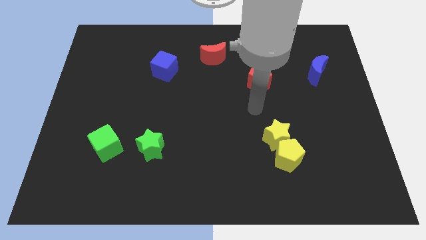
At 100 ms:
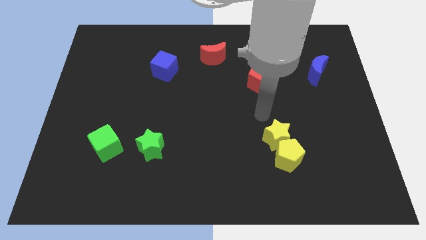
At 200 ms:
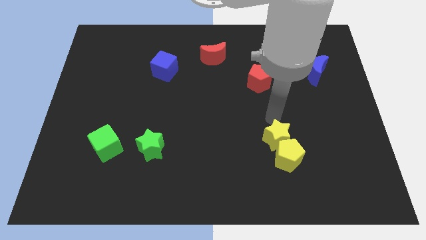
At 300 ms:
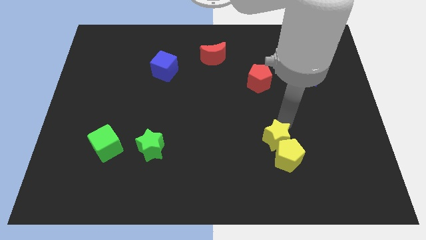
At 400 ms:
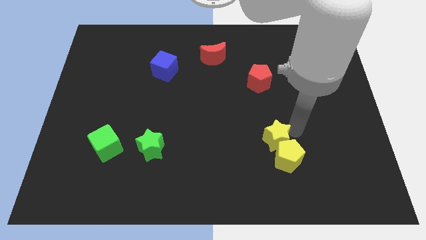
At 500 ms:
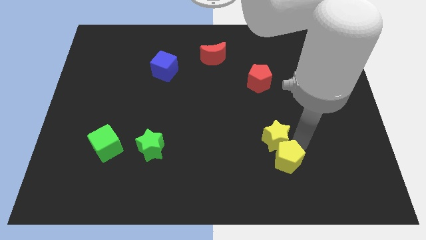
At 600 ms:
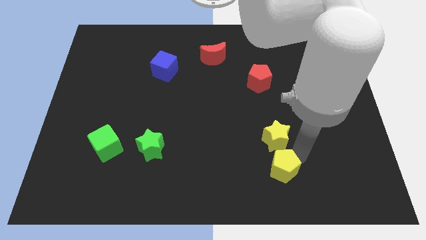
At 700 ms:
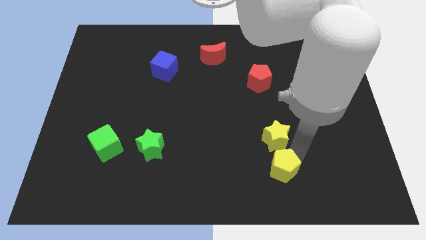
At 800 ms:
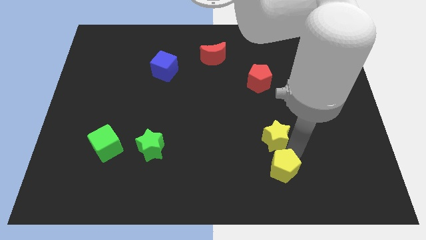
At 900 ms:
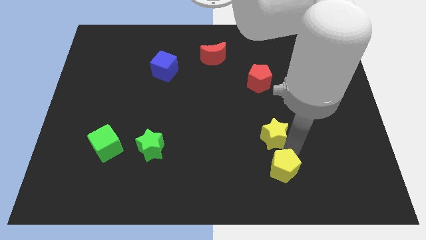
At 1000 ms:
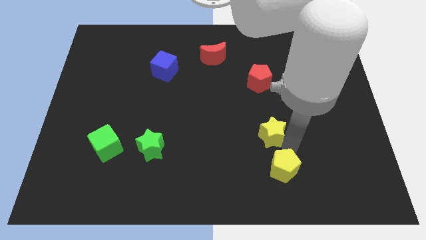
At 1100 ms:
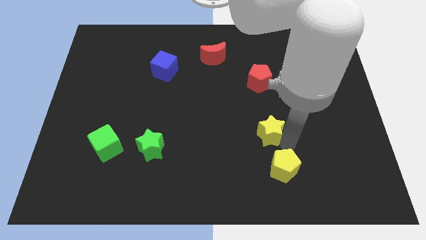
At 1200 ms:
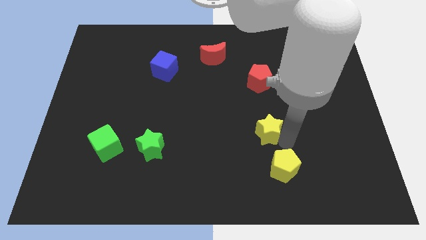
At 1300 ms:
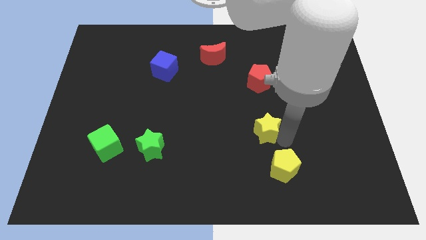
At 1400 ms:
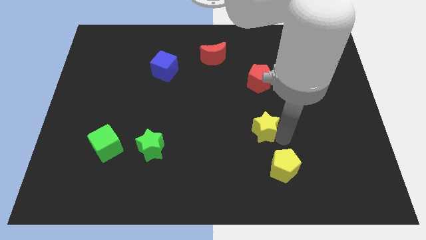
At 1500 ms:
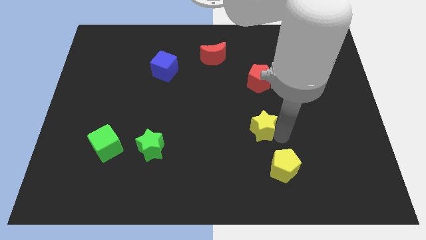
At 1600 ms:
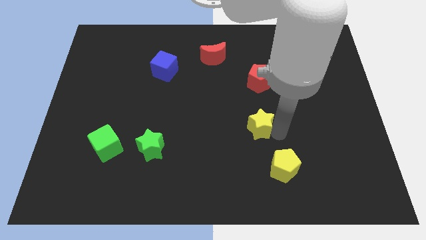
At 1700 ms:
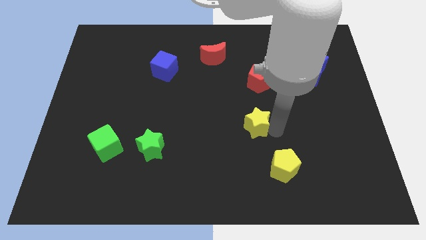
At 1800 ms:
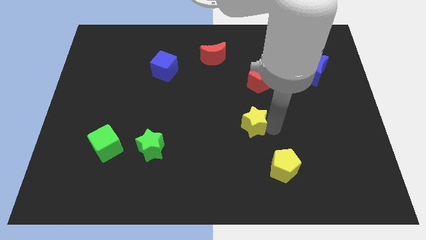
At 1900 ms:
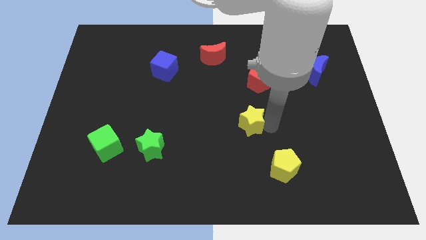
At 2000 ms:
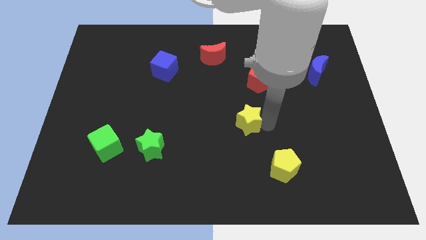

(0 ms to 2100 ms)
slide the yellow star diagonally up and left a bit

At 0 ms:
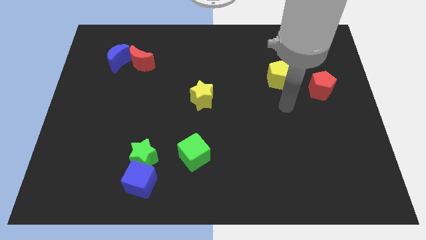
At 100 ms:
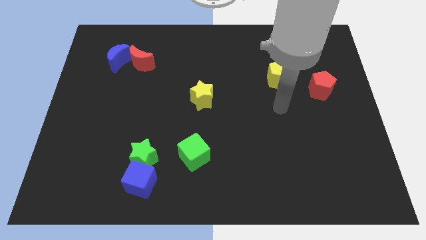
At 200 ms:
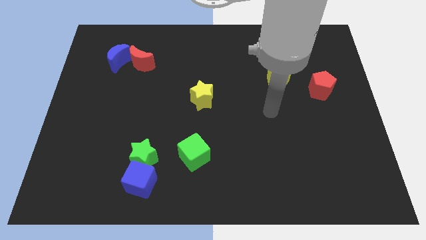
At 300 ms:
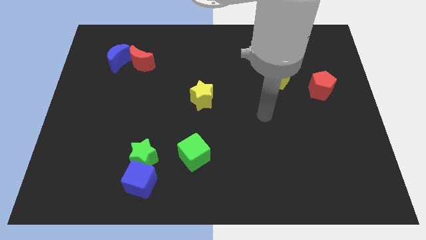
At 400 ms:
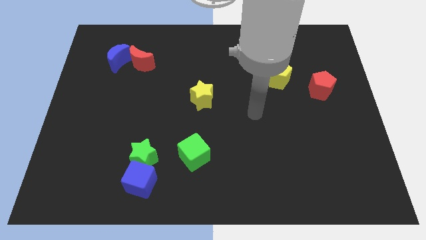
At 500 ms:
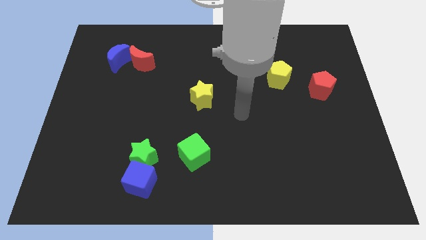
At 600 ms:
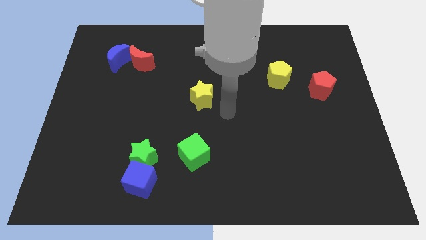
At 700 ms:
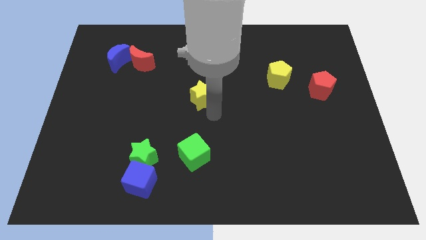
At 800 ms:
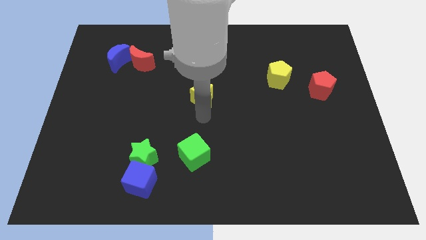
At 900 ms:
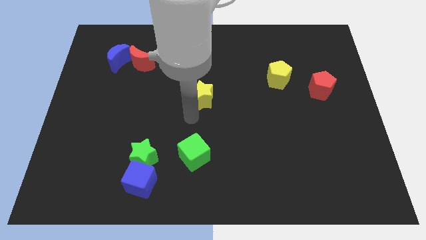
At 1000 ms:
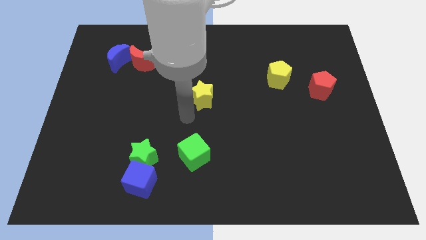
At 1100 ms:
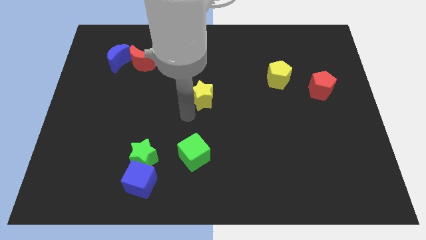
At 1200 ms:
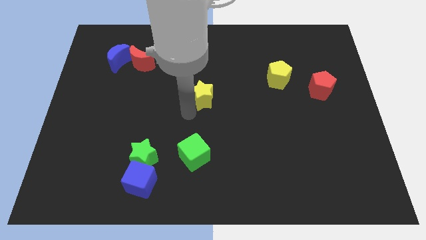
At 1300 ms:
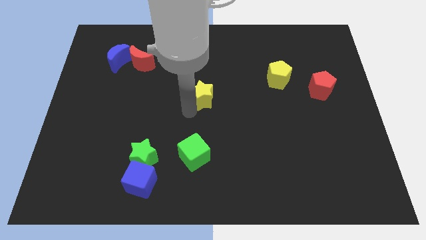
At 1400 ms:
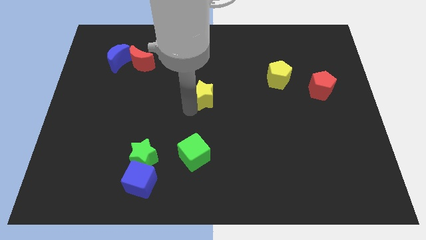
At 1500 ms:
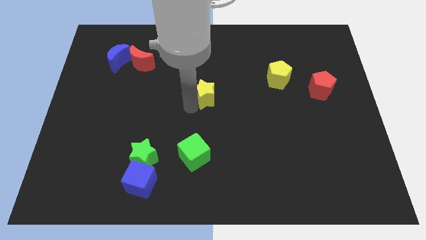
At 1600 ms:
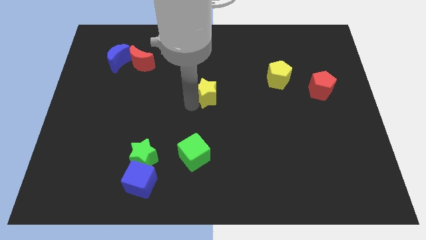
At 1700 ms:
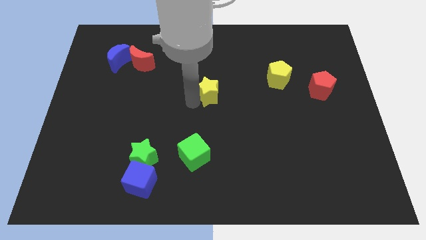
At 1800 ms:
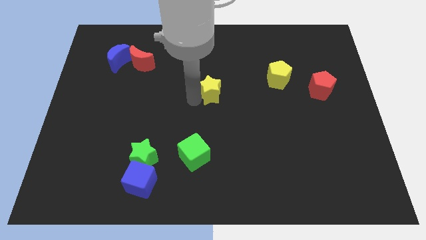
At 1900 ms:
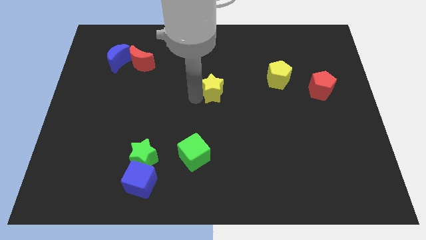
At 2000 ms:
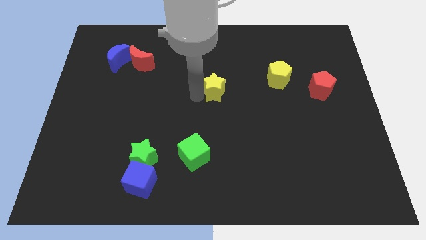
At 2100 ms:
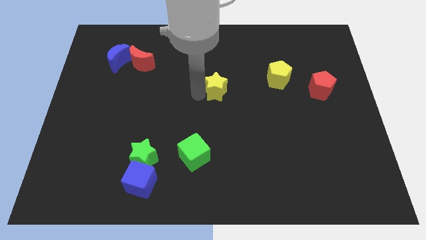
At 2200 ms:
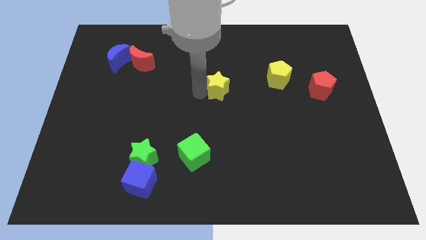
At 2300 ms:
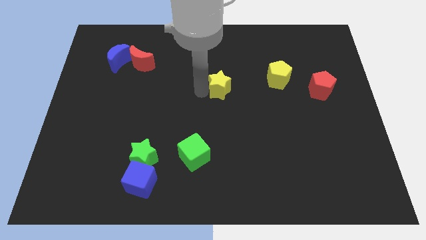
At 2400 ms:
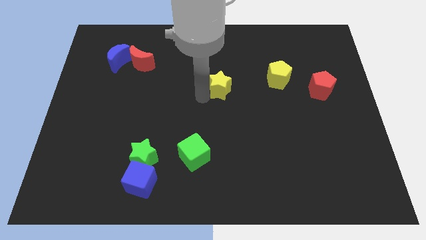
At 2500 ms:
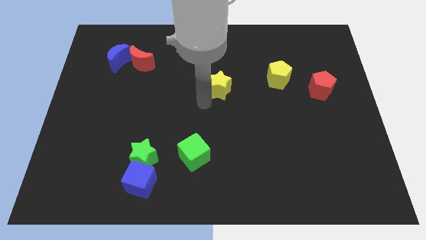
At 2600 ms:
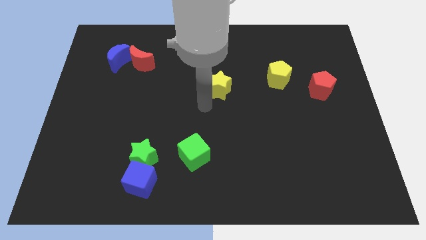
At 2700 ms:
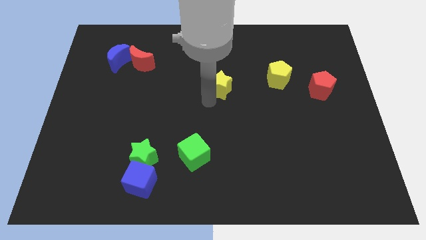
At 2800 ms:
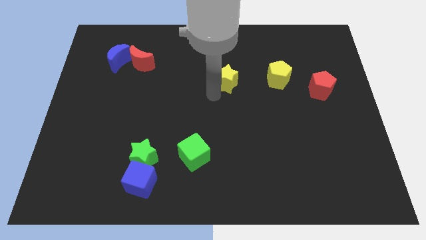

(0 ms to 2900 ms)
slide the yellow star diagonally upwards and to the right a bit

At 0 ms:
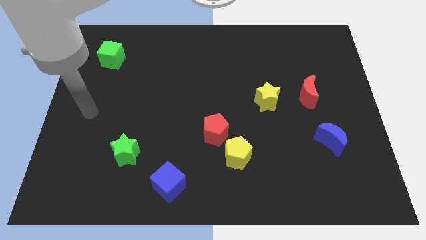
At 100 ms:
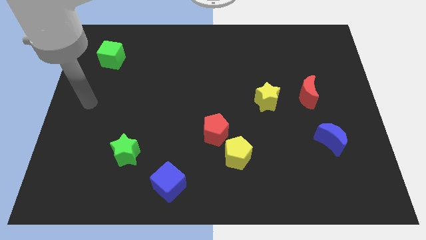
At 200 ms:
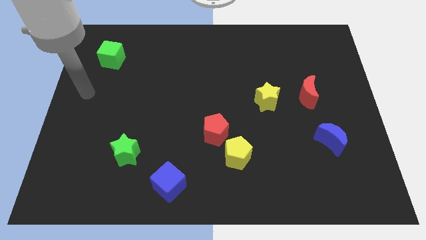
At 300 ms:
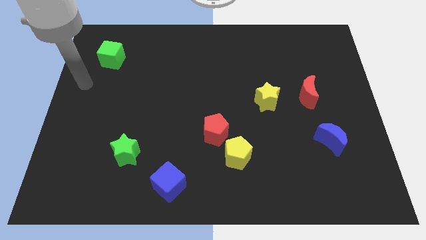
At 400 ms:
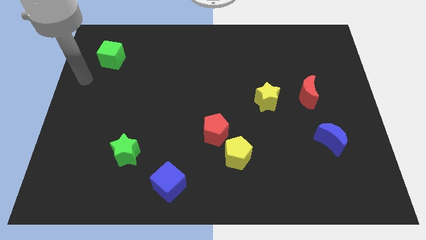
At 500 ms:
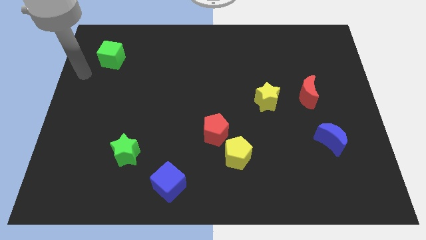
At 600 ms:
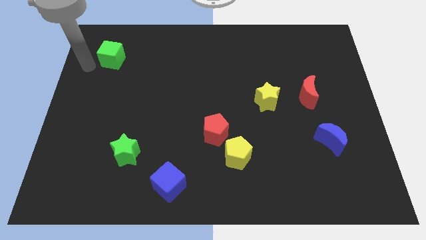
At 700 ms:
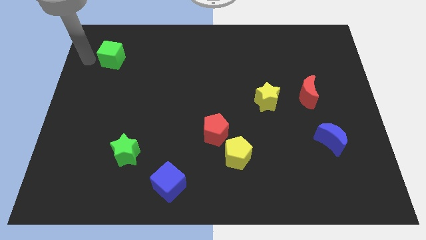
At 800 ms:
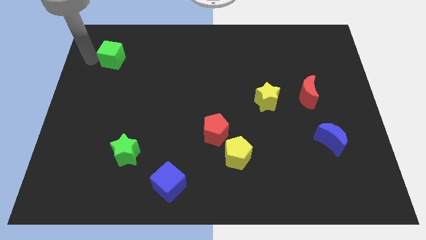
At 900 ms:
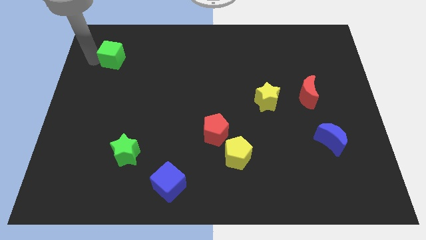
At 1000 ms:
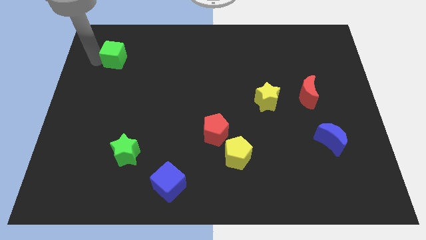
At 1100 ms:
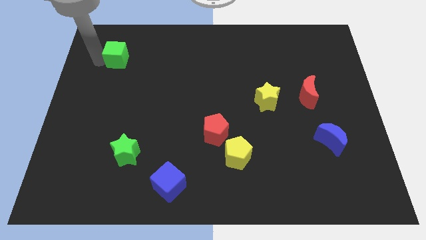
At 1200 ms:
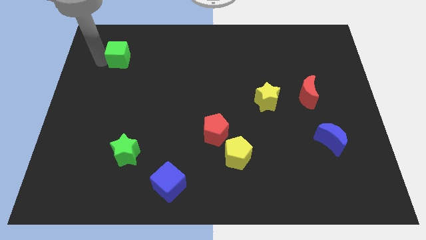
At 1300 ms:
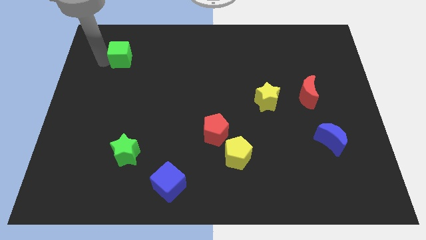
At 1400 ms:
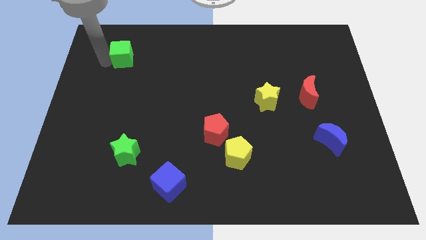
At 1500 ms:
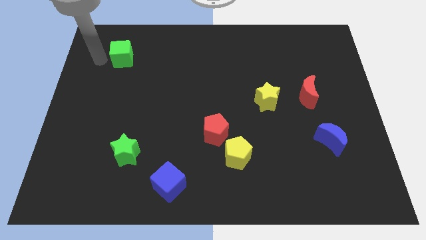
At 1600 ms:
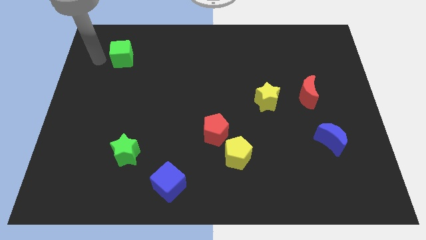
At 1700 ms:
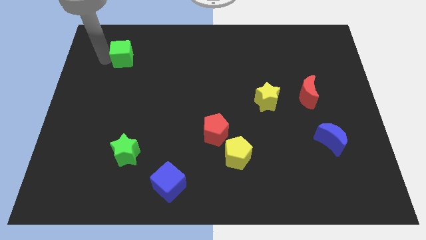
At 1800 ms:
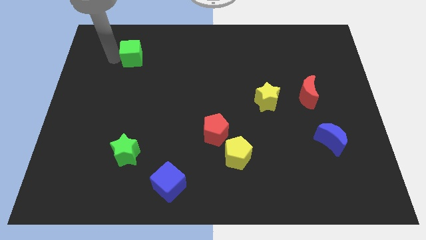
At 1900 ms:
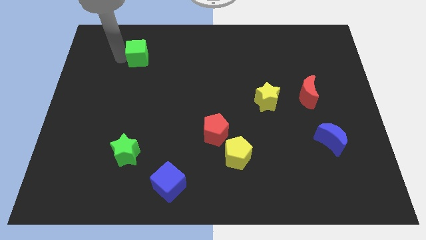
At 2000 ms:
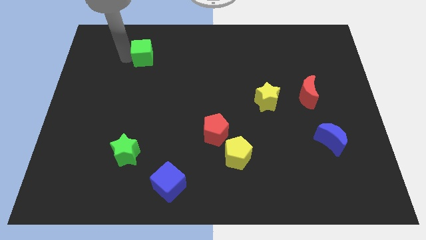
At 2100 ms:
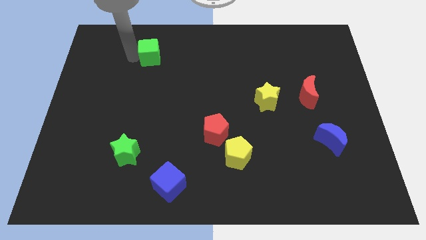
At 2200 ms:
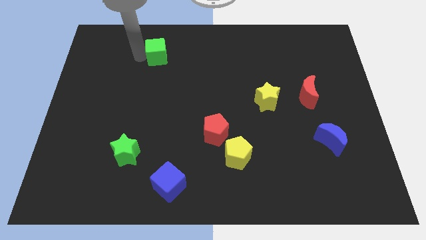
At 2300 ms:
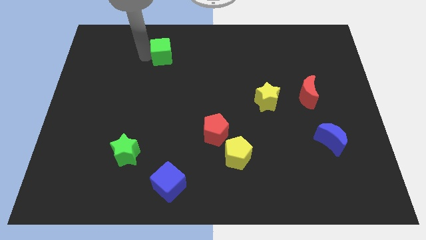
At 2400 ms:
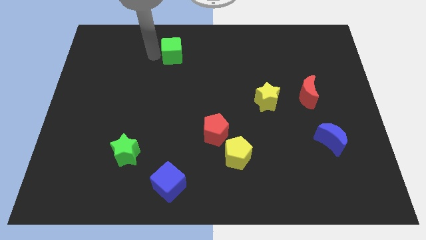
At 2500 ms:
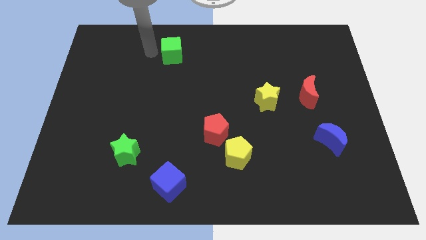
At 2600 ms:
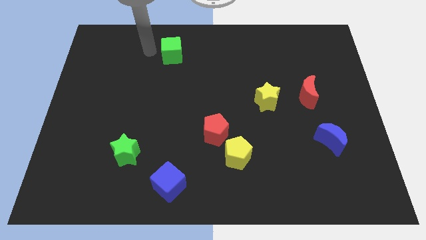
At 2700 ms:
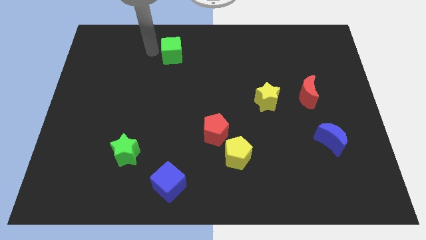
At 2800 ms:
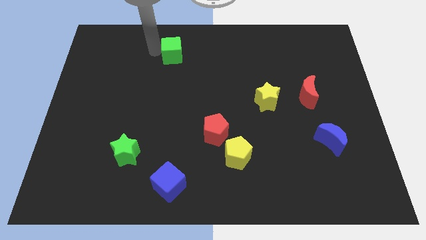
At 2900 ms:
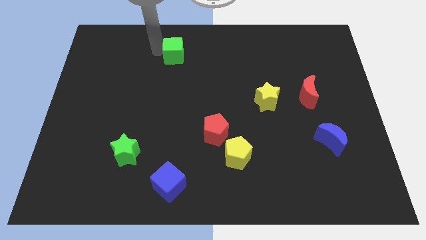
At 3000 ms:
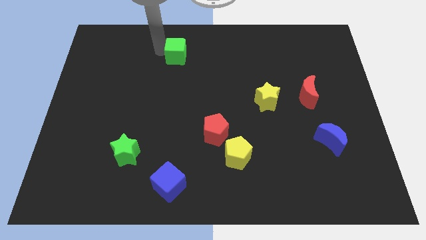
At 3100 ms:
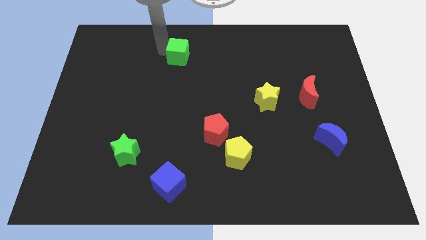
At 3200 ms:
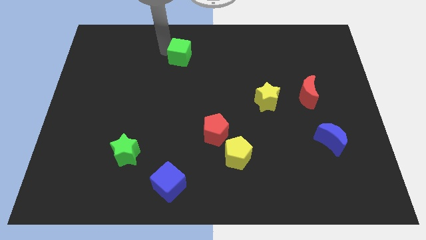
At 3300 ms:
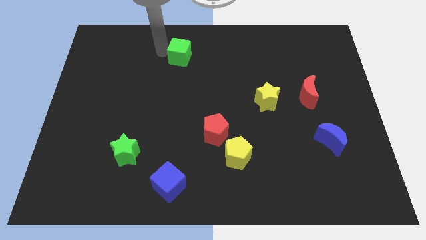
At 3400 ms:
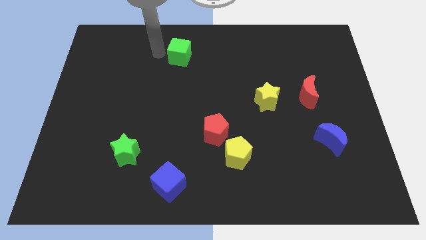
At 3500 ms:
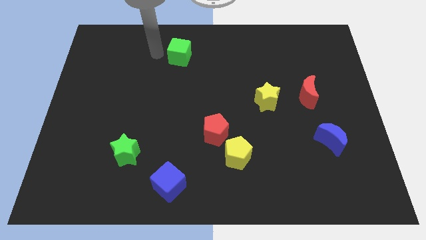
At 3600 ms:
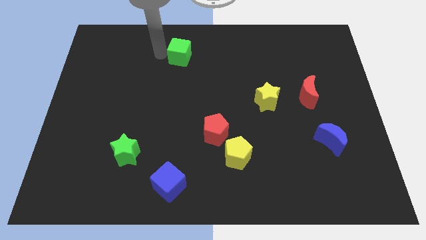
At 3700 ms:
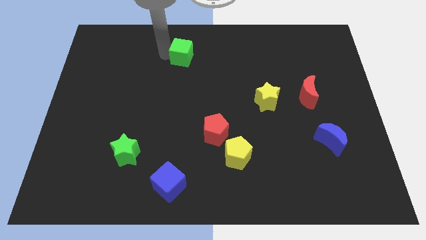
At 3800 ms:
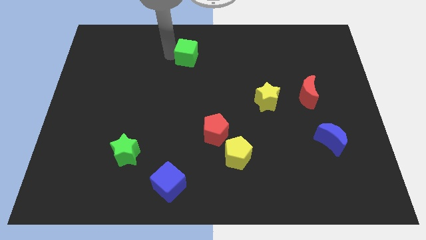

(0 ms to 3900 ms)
move the green cube right
